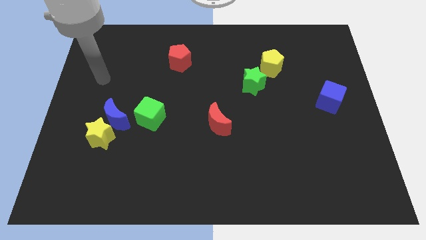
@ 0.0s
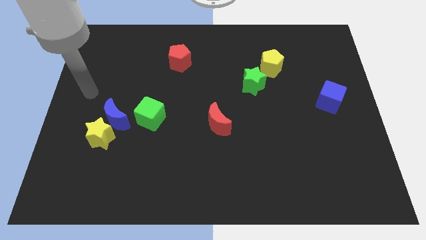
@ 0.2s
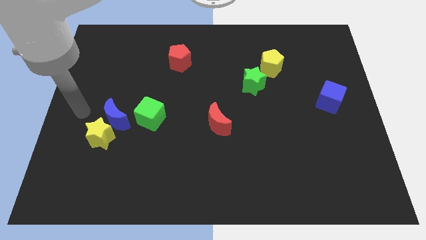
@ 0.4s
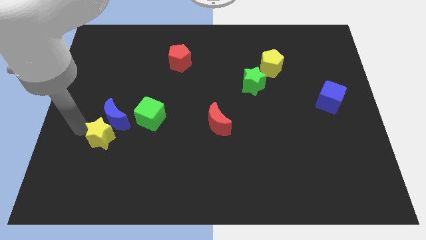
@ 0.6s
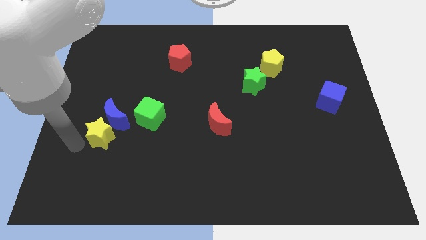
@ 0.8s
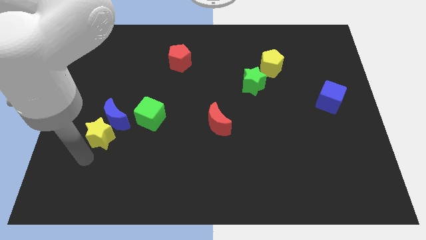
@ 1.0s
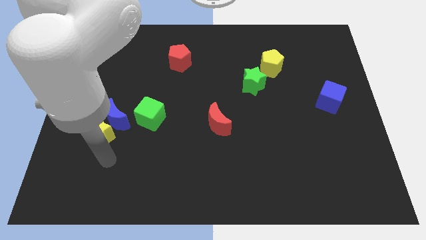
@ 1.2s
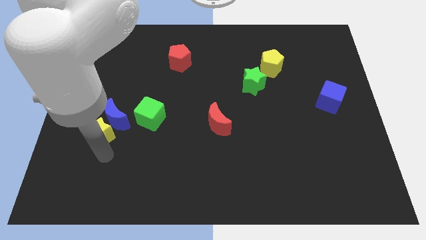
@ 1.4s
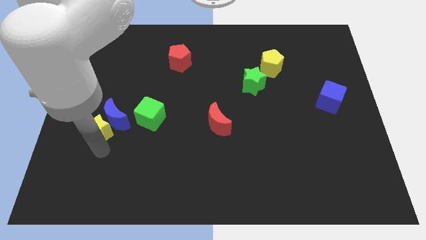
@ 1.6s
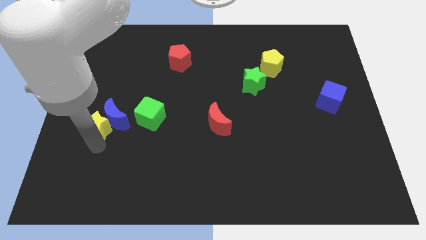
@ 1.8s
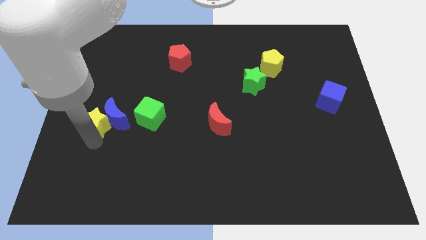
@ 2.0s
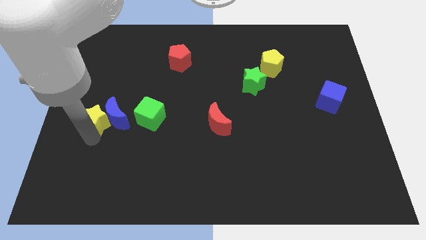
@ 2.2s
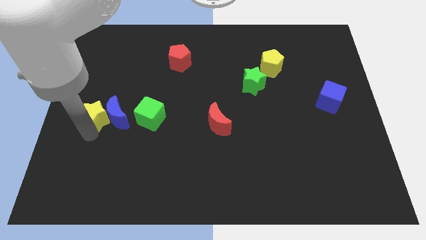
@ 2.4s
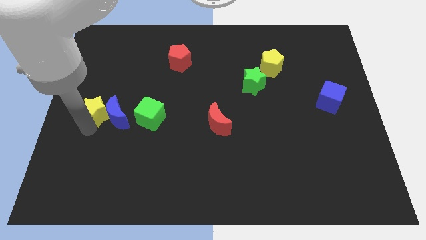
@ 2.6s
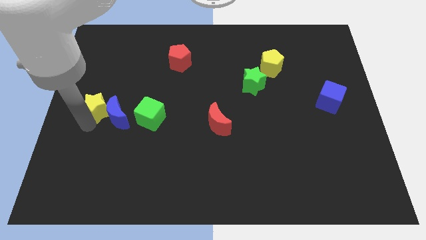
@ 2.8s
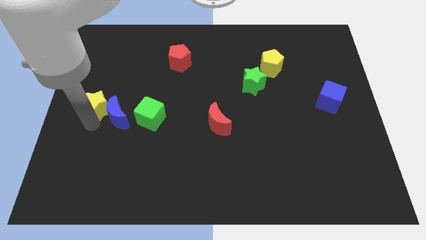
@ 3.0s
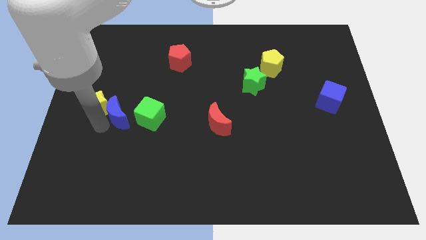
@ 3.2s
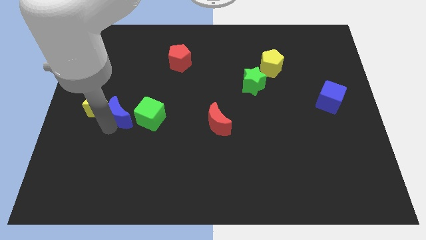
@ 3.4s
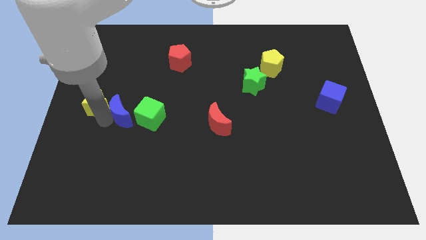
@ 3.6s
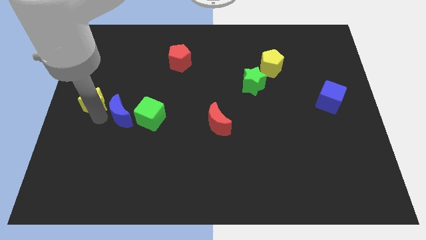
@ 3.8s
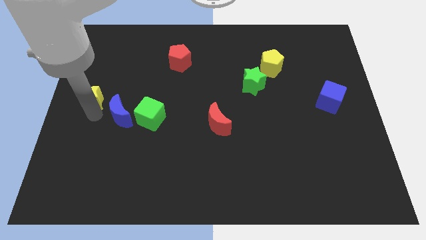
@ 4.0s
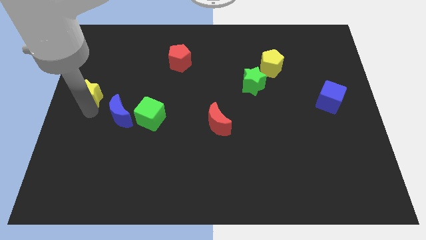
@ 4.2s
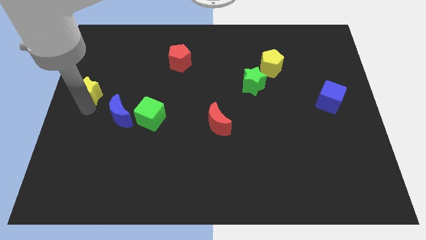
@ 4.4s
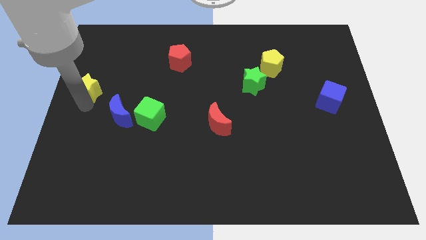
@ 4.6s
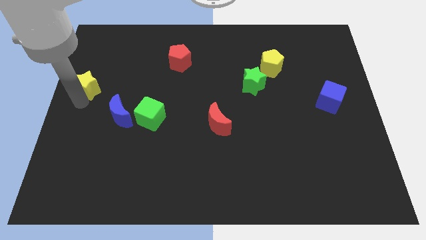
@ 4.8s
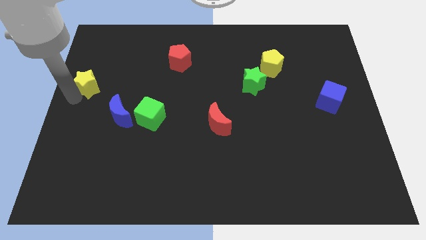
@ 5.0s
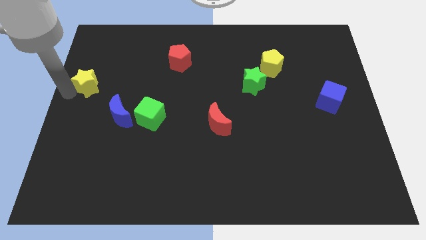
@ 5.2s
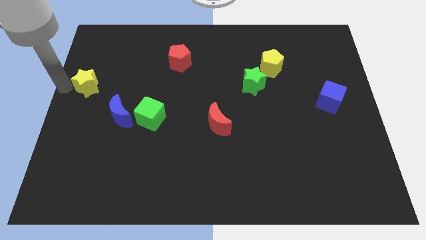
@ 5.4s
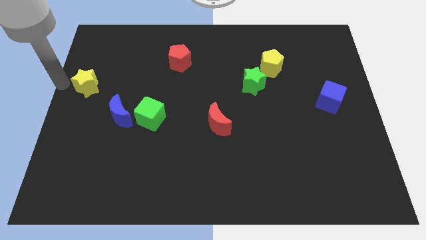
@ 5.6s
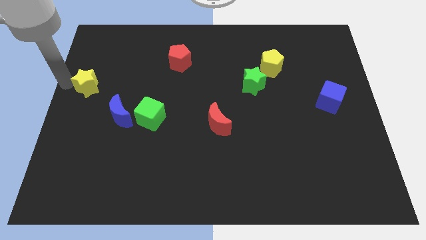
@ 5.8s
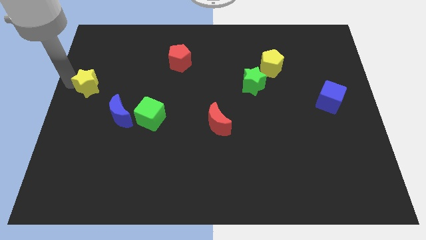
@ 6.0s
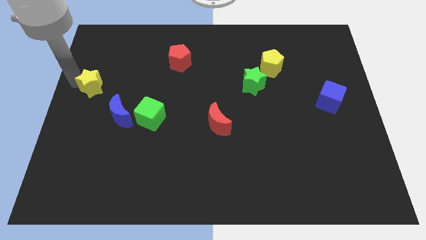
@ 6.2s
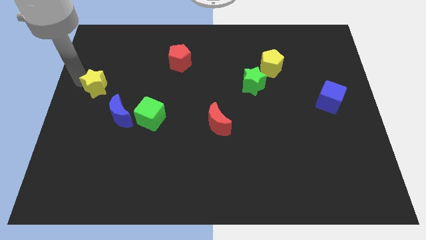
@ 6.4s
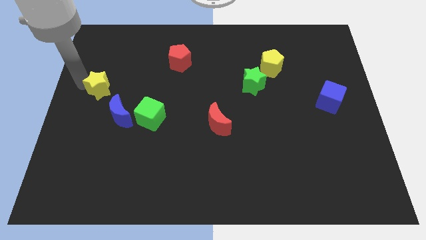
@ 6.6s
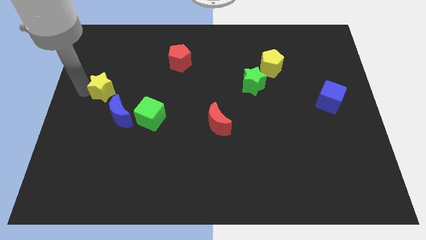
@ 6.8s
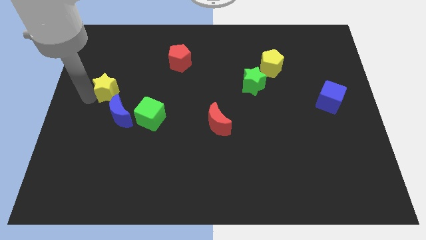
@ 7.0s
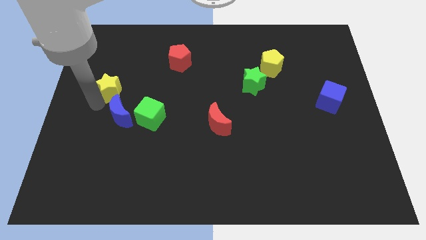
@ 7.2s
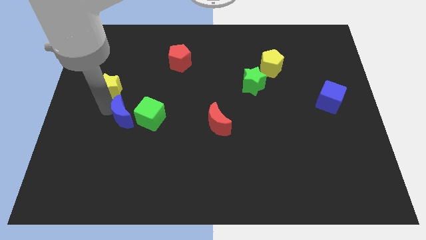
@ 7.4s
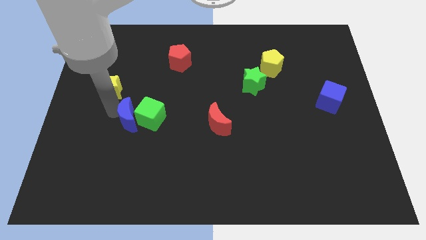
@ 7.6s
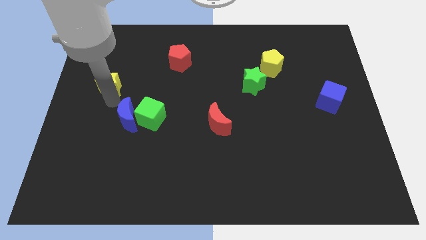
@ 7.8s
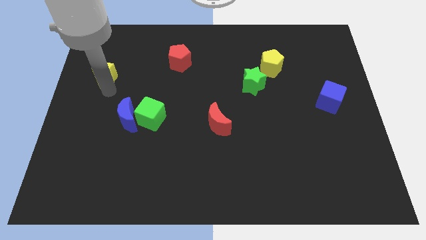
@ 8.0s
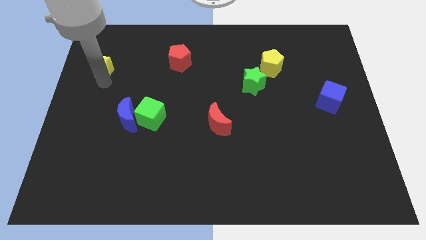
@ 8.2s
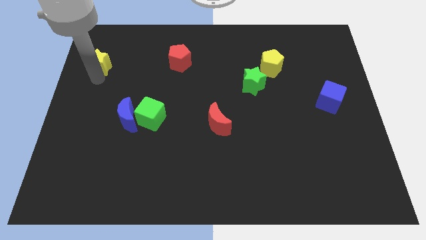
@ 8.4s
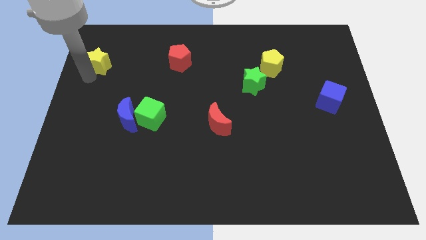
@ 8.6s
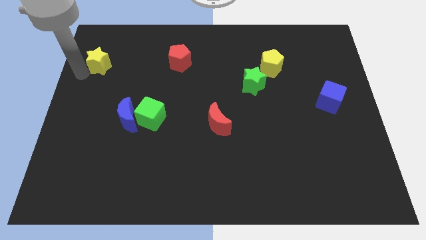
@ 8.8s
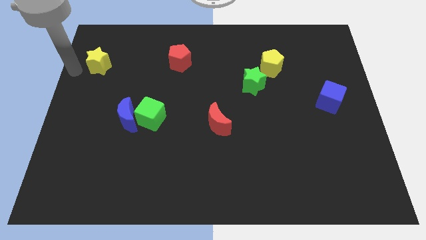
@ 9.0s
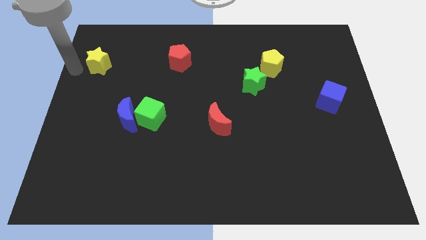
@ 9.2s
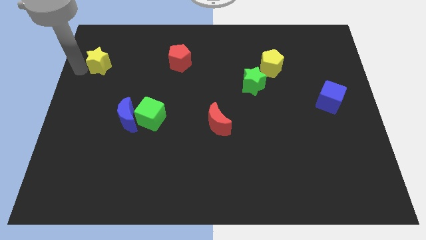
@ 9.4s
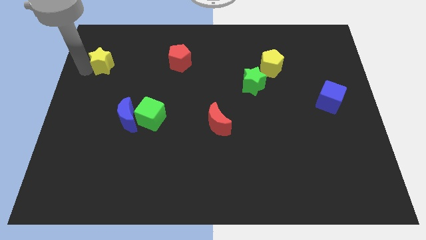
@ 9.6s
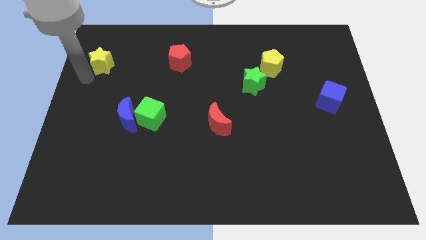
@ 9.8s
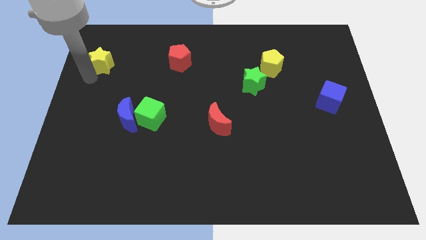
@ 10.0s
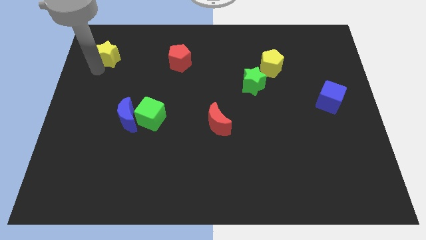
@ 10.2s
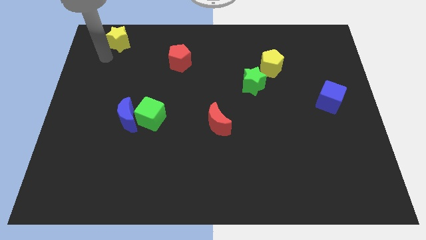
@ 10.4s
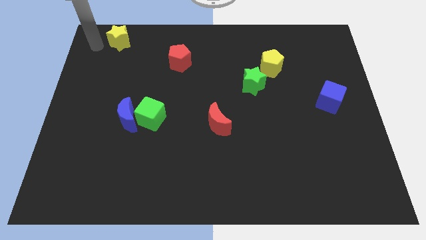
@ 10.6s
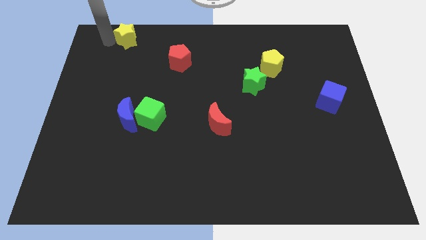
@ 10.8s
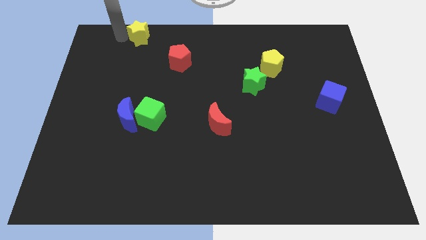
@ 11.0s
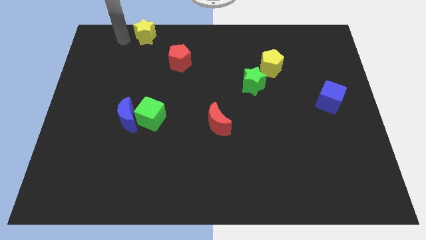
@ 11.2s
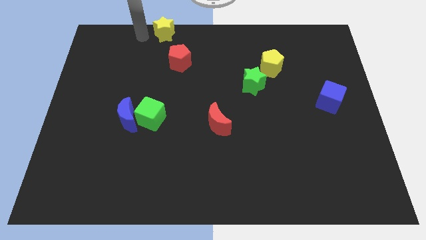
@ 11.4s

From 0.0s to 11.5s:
put the yellow star to the top side
